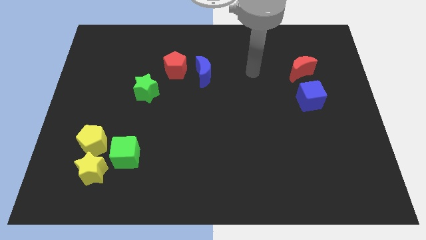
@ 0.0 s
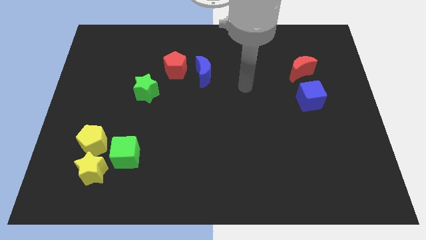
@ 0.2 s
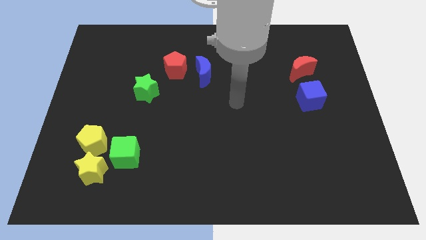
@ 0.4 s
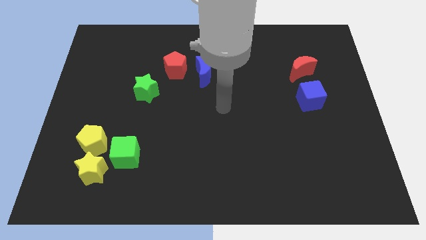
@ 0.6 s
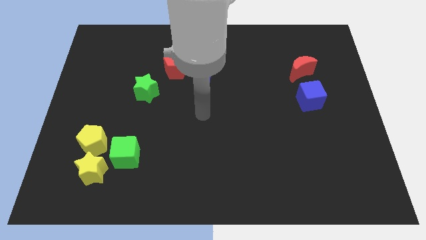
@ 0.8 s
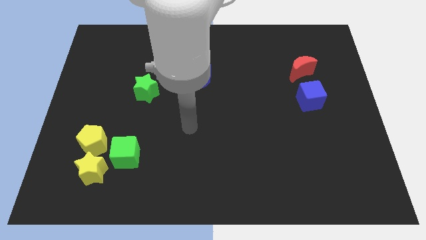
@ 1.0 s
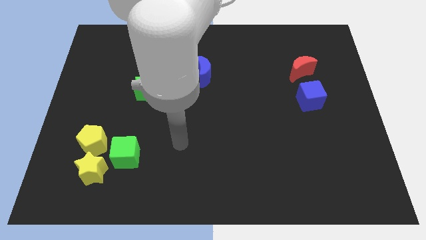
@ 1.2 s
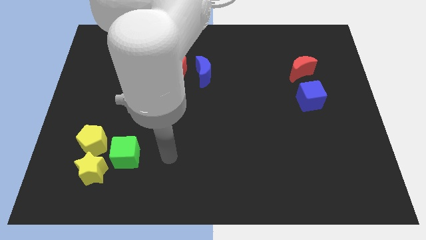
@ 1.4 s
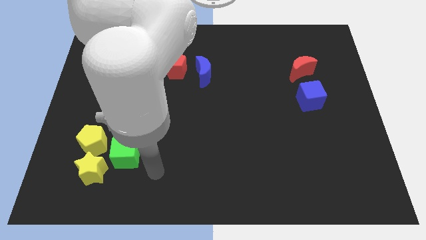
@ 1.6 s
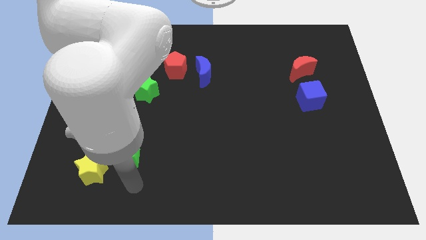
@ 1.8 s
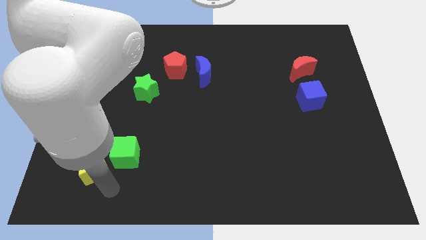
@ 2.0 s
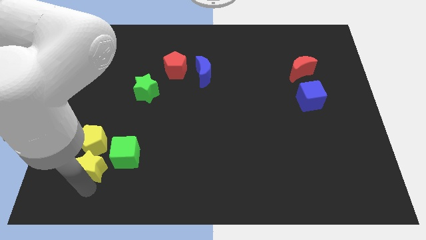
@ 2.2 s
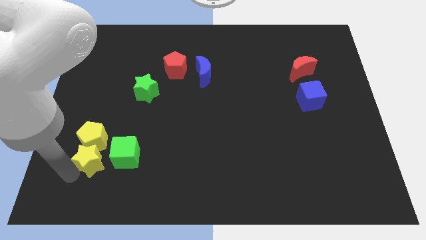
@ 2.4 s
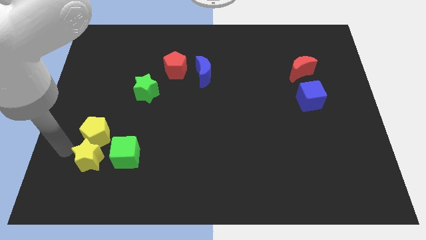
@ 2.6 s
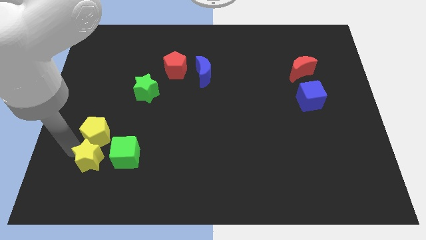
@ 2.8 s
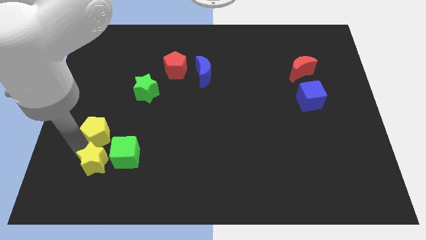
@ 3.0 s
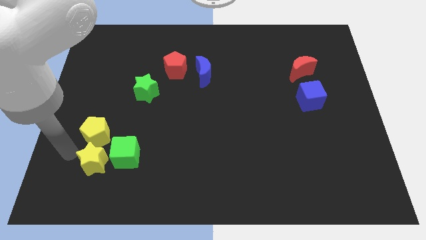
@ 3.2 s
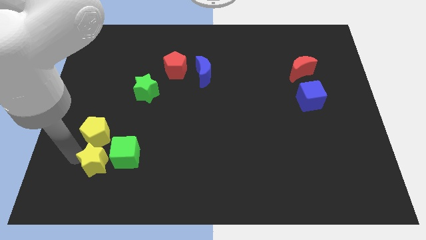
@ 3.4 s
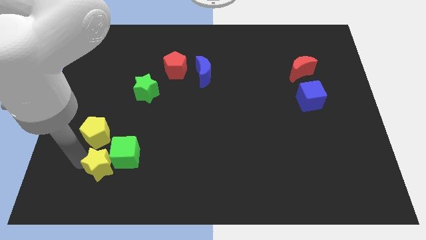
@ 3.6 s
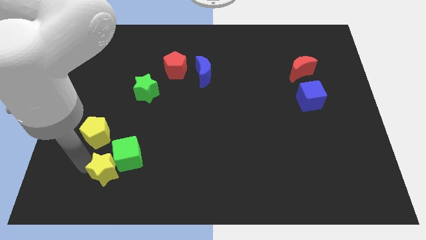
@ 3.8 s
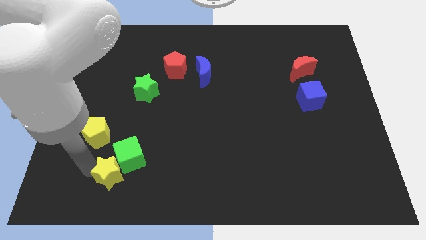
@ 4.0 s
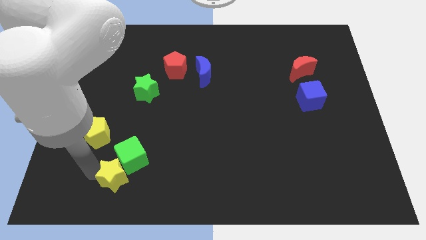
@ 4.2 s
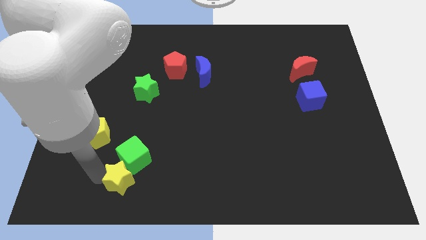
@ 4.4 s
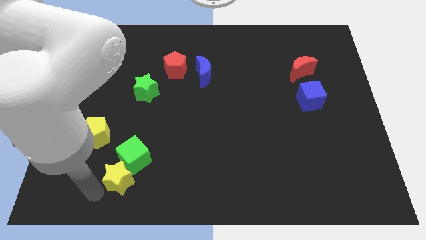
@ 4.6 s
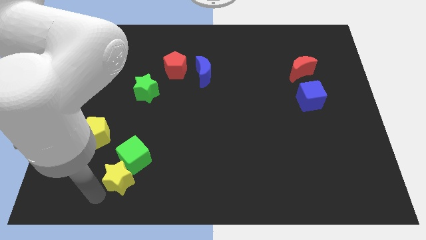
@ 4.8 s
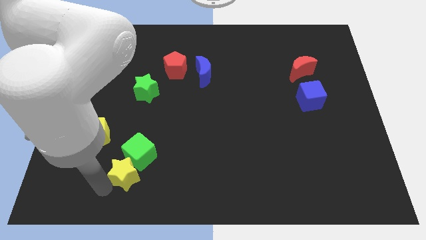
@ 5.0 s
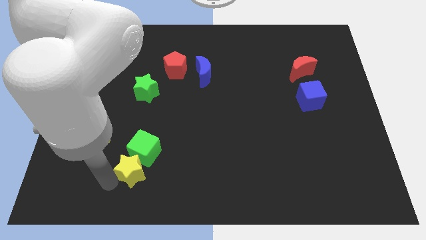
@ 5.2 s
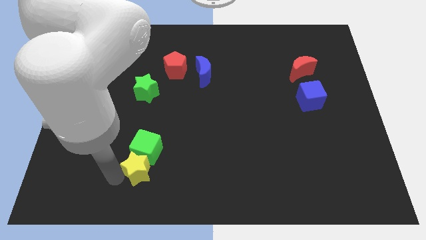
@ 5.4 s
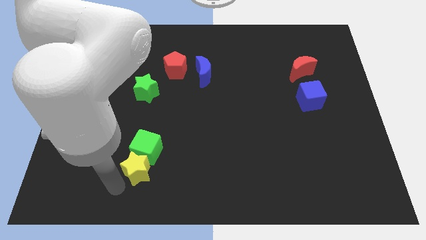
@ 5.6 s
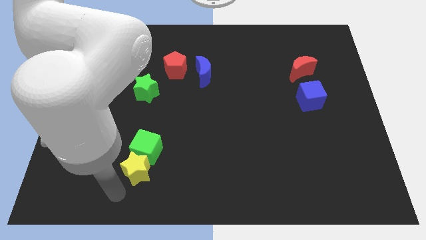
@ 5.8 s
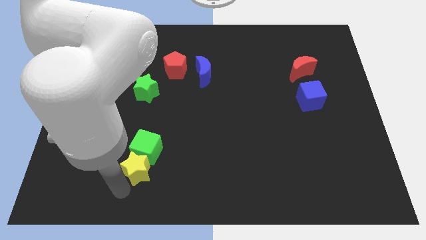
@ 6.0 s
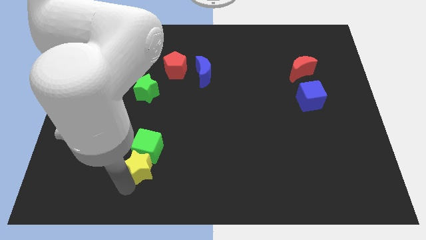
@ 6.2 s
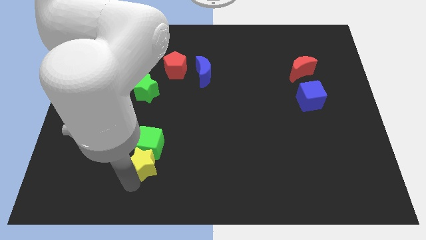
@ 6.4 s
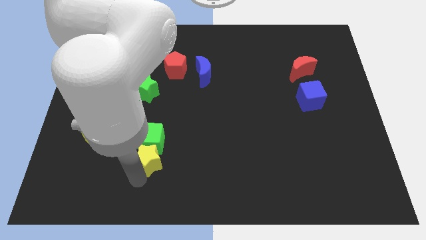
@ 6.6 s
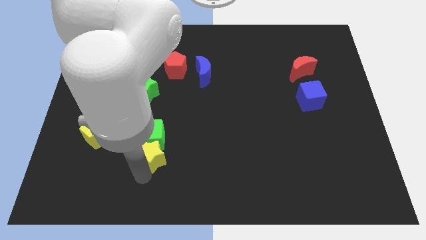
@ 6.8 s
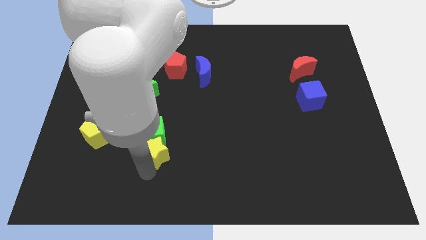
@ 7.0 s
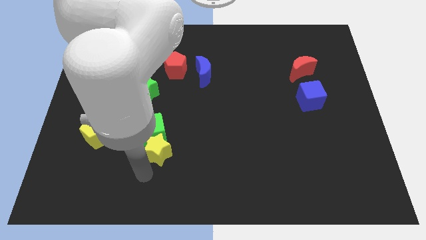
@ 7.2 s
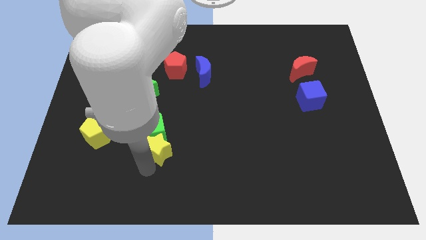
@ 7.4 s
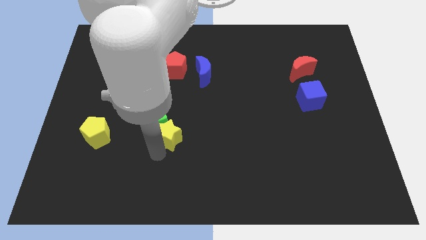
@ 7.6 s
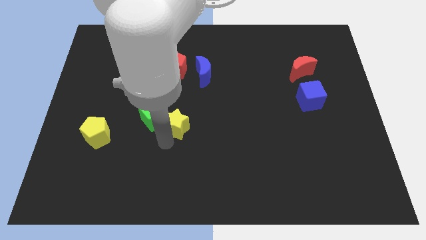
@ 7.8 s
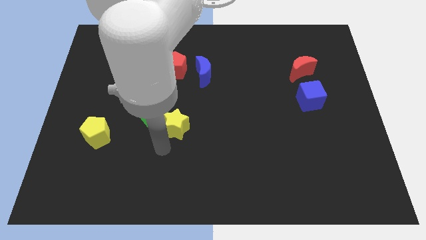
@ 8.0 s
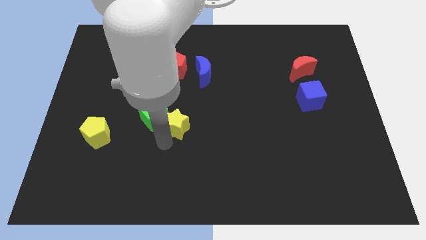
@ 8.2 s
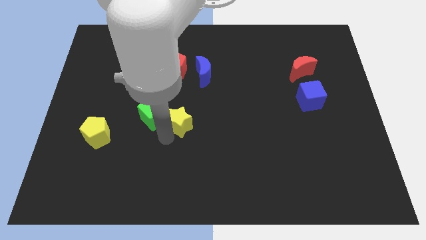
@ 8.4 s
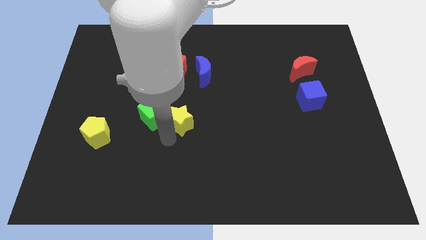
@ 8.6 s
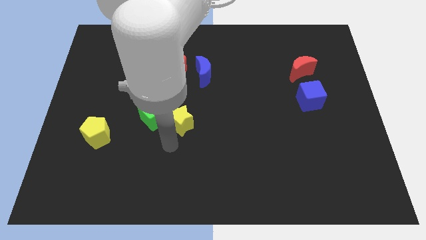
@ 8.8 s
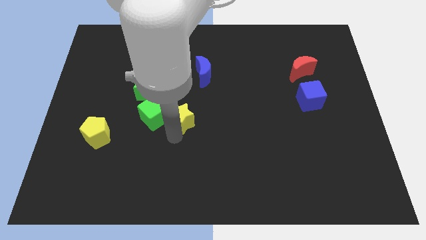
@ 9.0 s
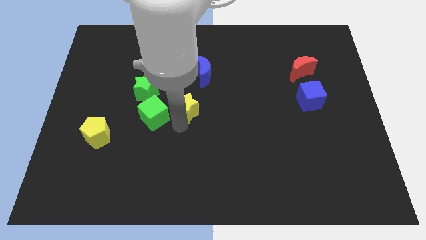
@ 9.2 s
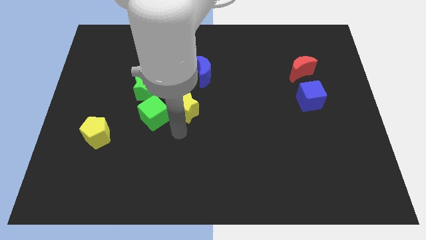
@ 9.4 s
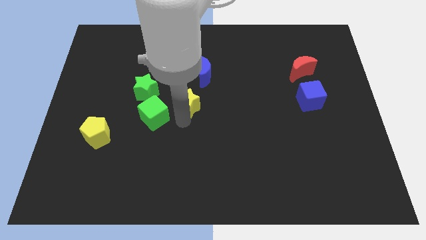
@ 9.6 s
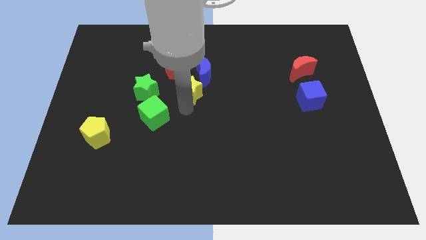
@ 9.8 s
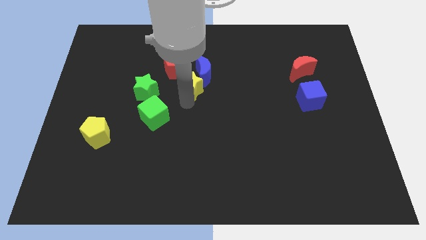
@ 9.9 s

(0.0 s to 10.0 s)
push the yellow star close to the blue moon

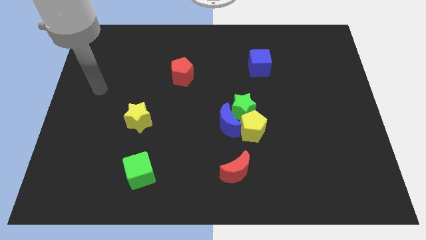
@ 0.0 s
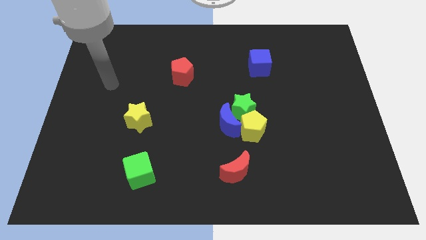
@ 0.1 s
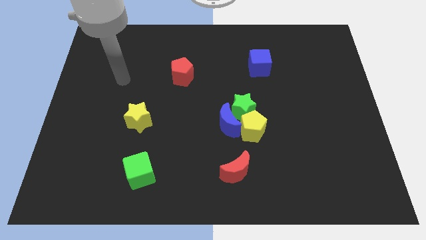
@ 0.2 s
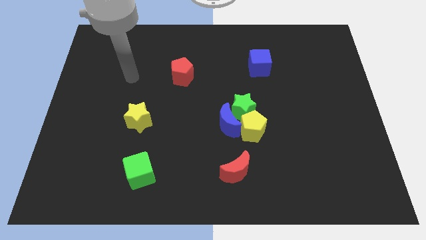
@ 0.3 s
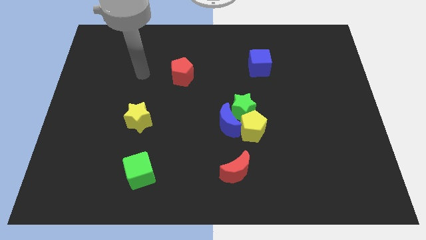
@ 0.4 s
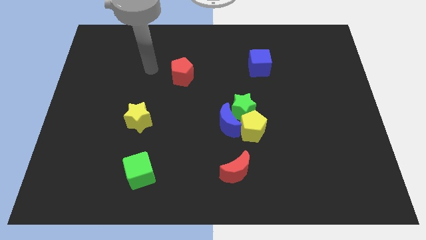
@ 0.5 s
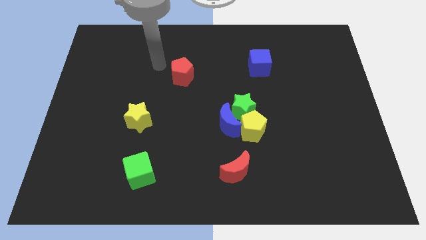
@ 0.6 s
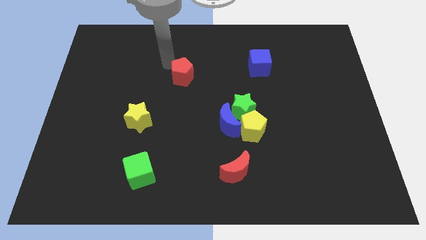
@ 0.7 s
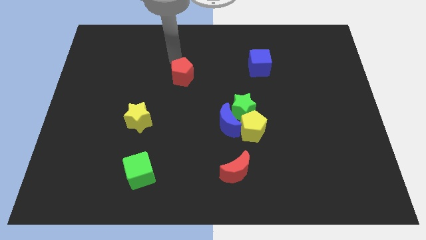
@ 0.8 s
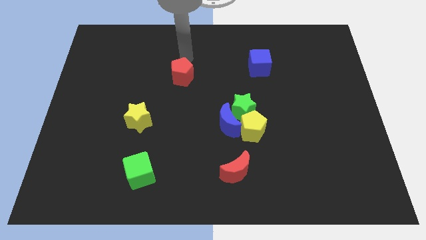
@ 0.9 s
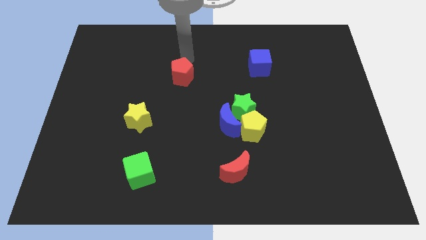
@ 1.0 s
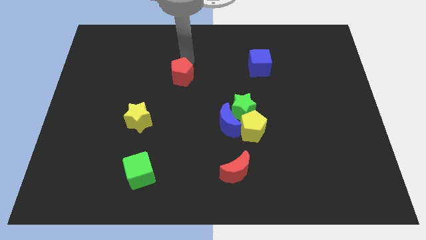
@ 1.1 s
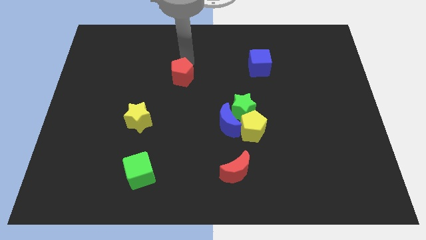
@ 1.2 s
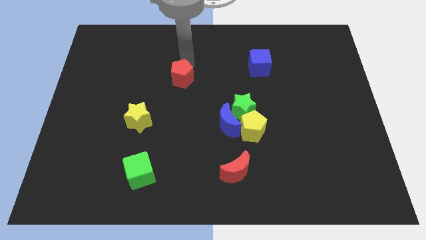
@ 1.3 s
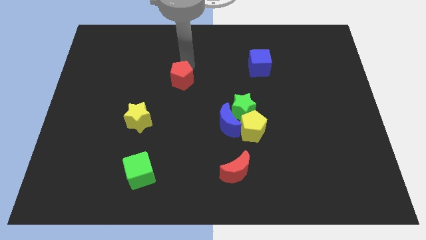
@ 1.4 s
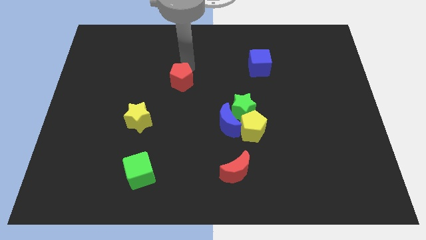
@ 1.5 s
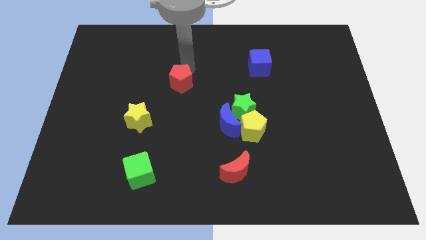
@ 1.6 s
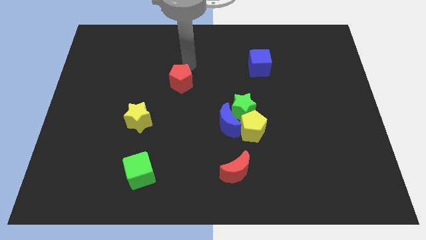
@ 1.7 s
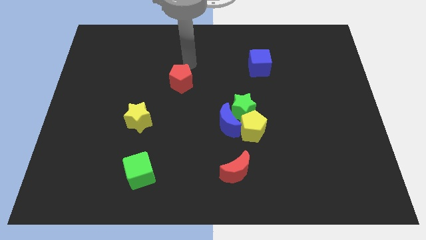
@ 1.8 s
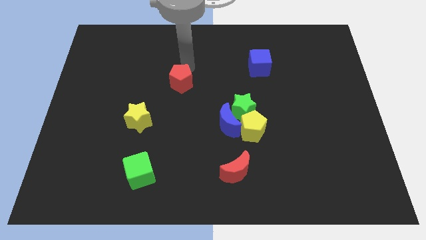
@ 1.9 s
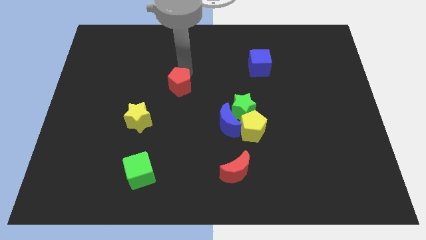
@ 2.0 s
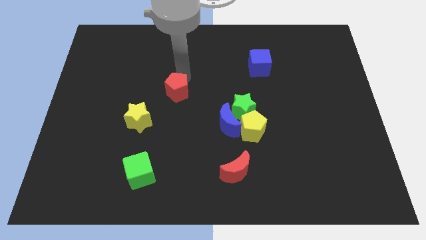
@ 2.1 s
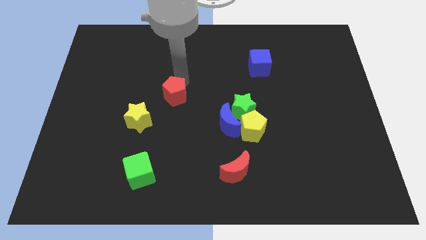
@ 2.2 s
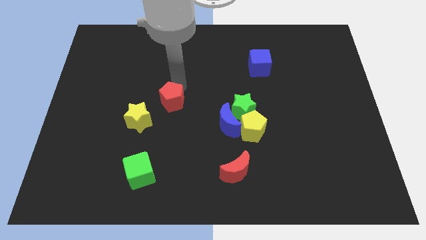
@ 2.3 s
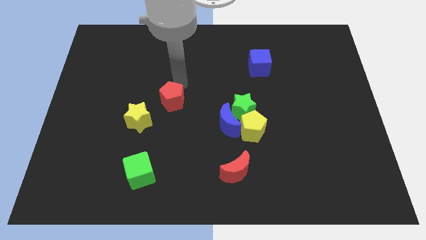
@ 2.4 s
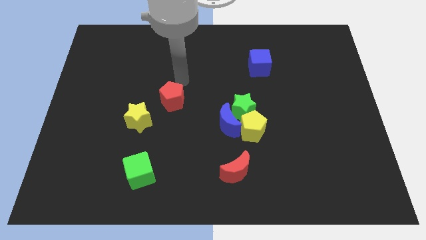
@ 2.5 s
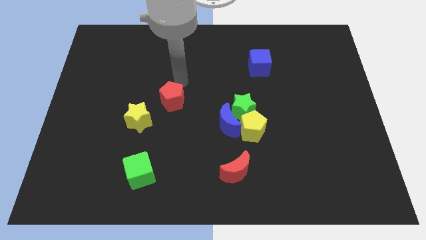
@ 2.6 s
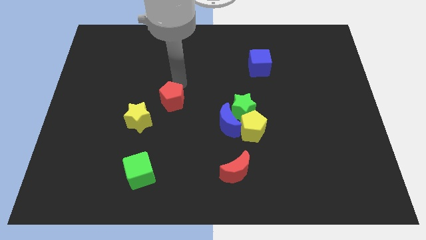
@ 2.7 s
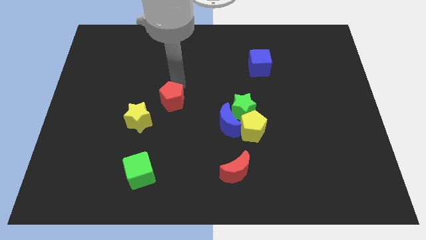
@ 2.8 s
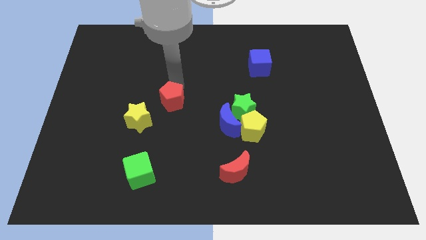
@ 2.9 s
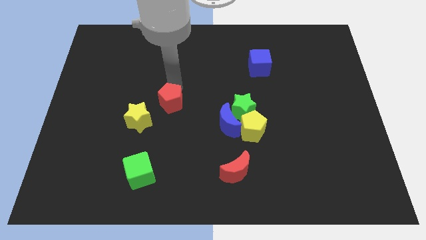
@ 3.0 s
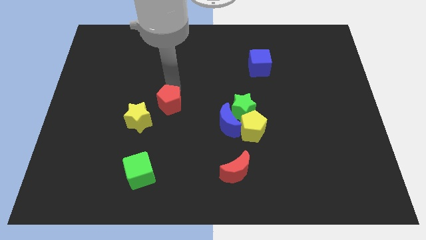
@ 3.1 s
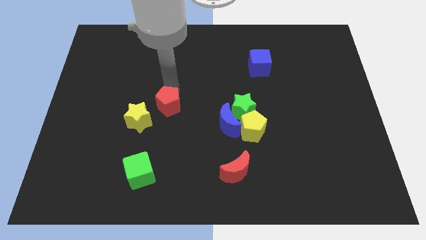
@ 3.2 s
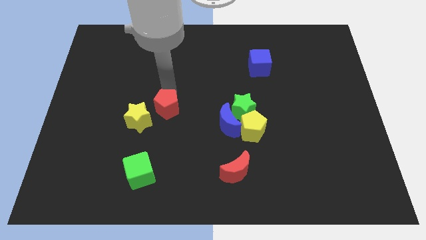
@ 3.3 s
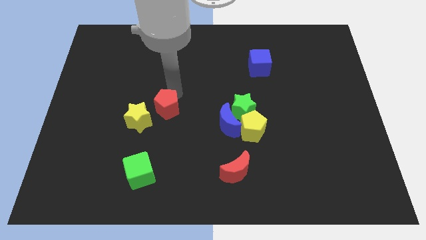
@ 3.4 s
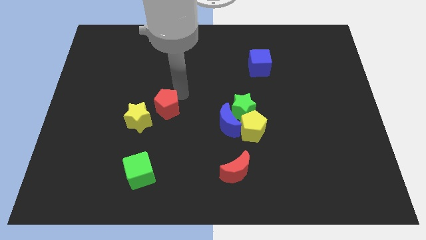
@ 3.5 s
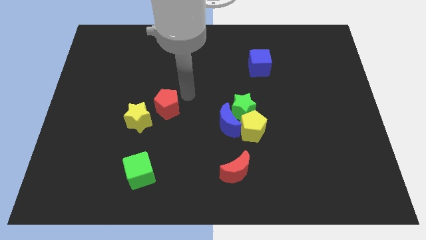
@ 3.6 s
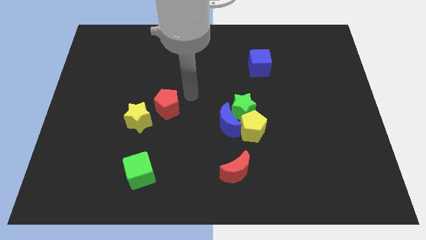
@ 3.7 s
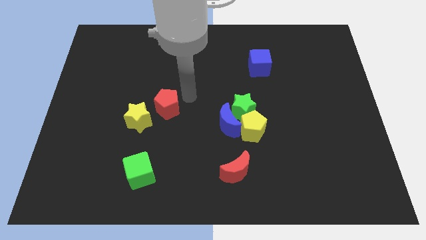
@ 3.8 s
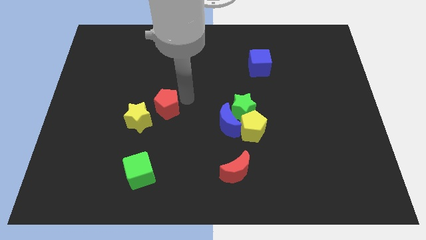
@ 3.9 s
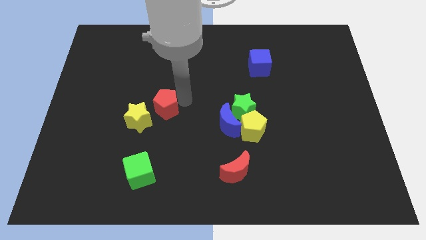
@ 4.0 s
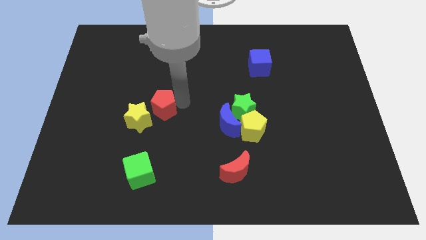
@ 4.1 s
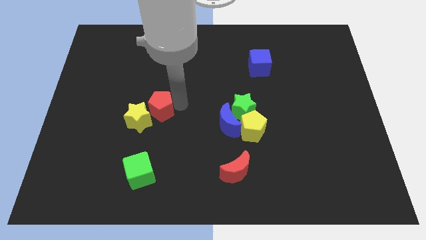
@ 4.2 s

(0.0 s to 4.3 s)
move the red pentagon close to the yellow star
